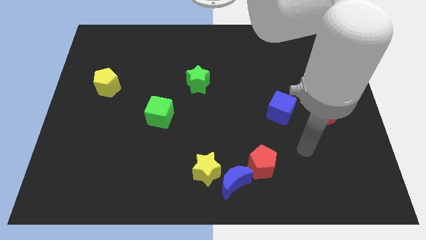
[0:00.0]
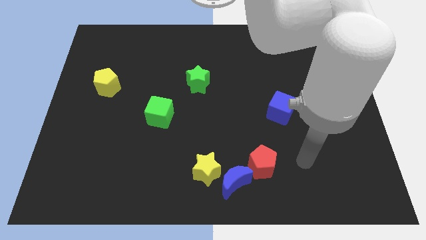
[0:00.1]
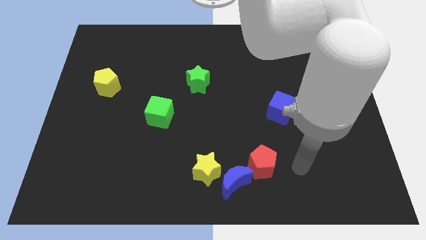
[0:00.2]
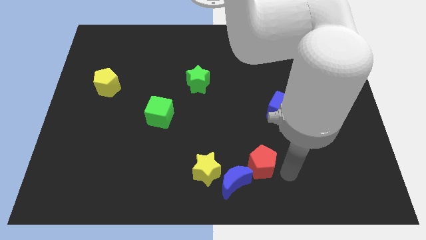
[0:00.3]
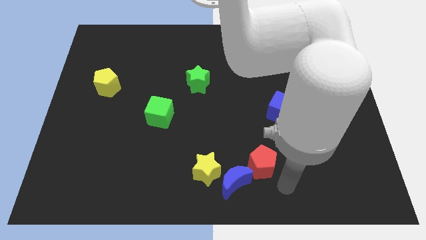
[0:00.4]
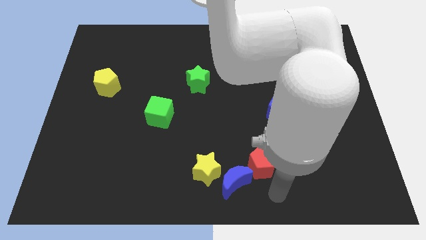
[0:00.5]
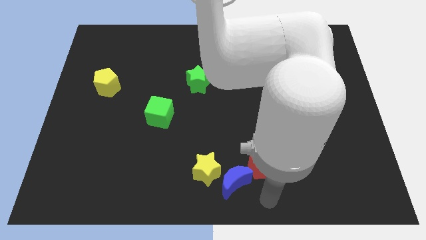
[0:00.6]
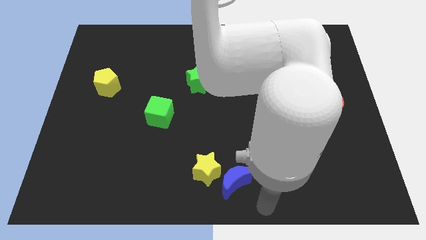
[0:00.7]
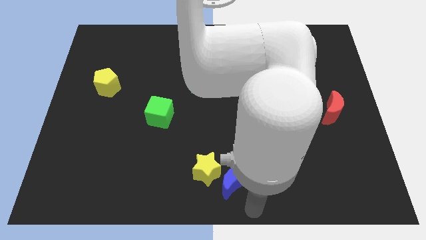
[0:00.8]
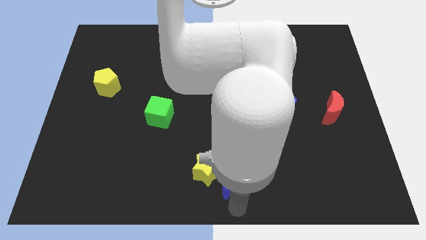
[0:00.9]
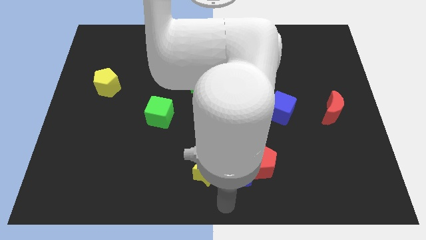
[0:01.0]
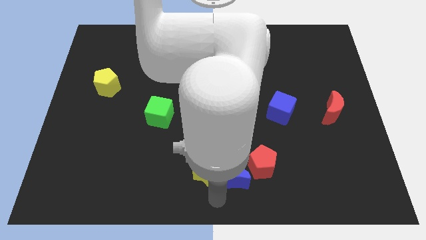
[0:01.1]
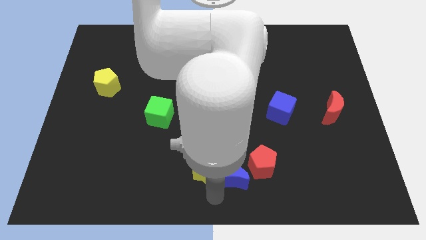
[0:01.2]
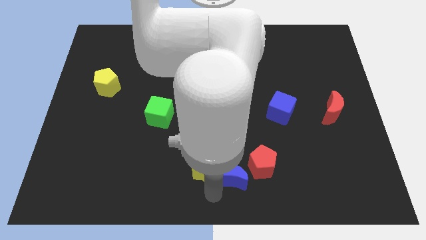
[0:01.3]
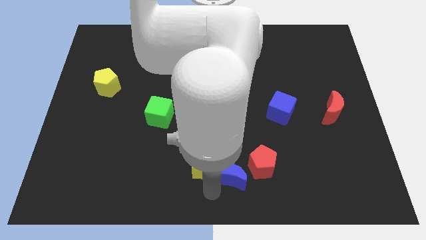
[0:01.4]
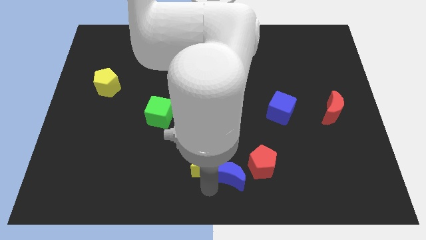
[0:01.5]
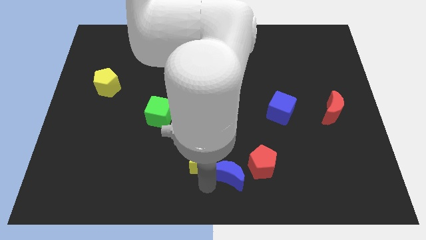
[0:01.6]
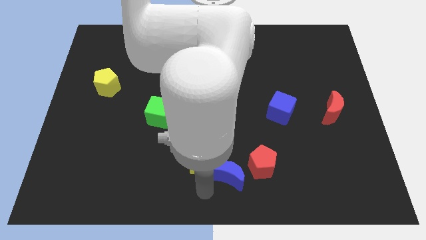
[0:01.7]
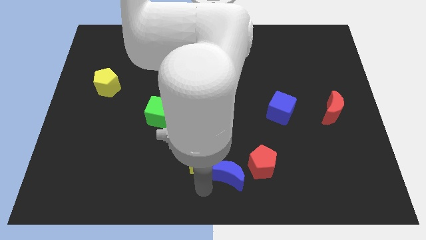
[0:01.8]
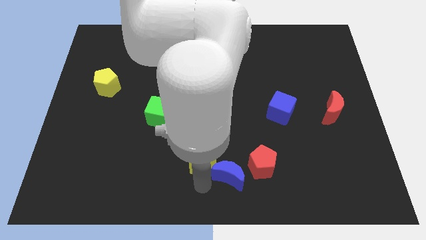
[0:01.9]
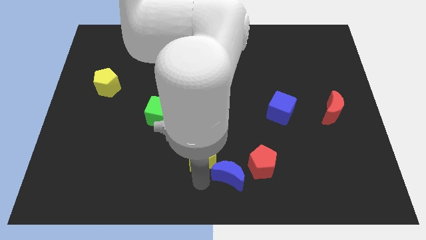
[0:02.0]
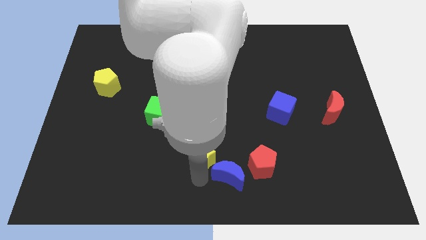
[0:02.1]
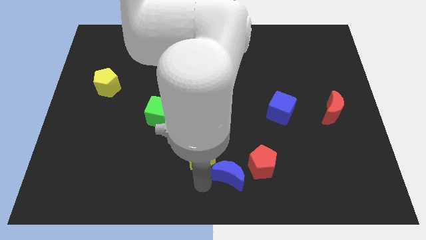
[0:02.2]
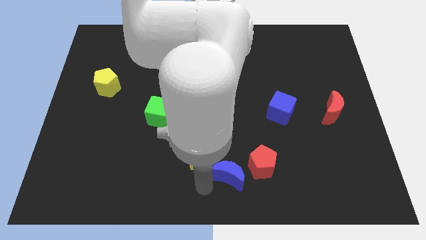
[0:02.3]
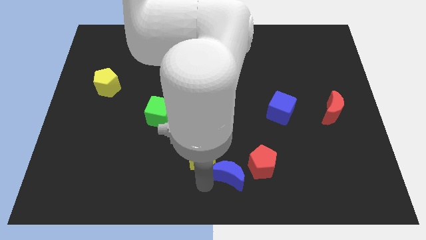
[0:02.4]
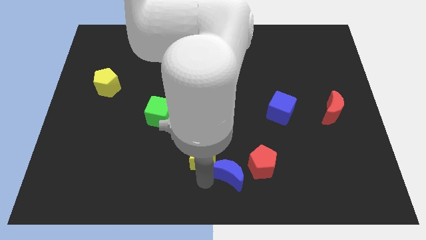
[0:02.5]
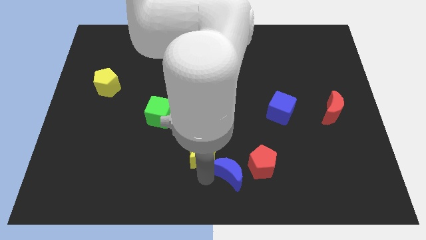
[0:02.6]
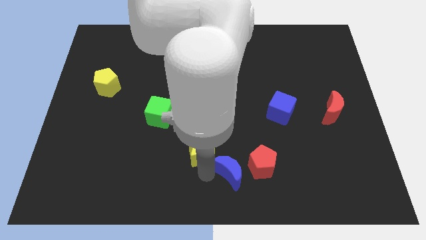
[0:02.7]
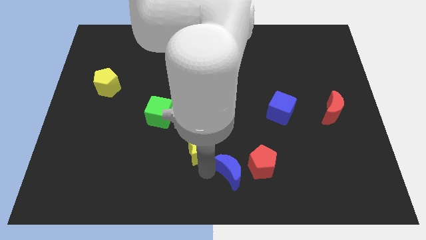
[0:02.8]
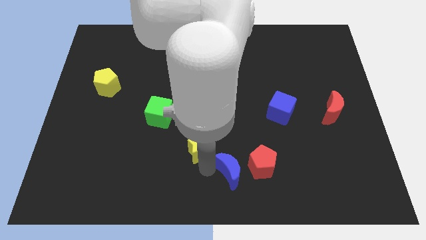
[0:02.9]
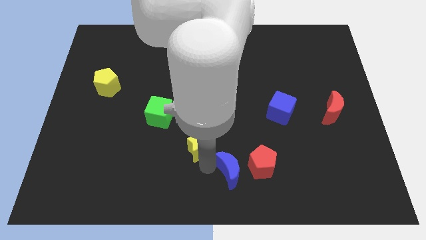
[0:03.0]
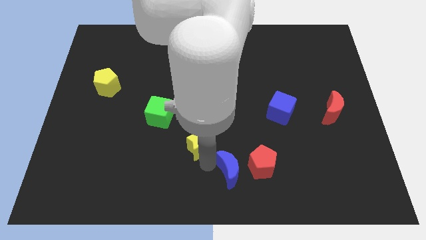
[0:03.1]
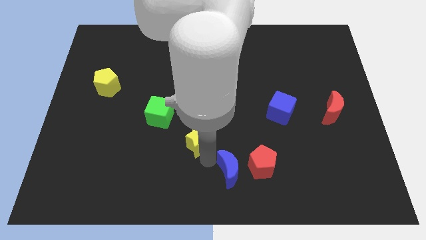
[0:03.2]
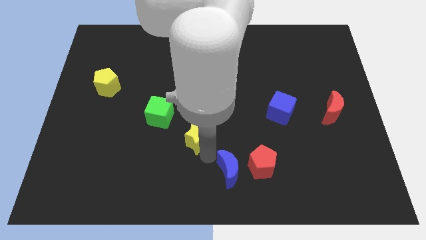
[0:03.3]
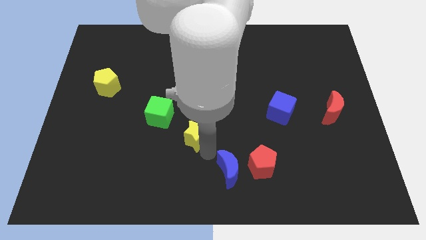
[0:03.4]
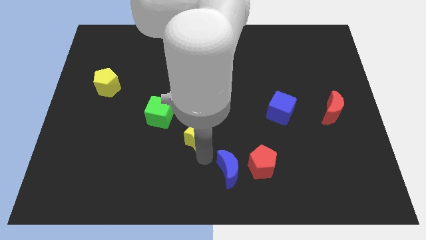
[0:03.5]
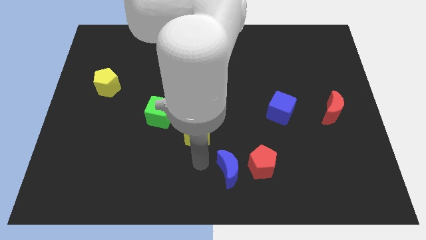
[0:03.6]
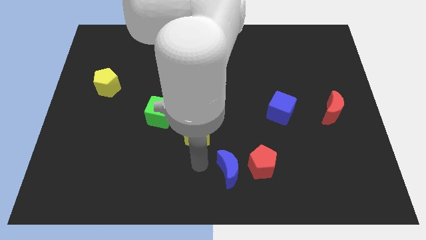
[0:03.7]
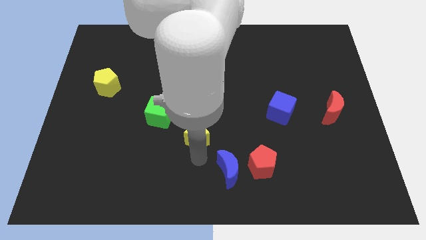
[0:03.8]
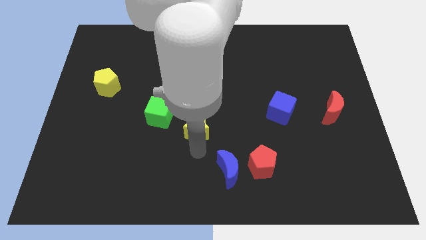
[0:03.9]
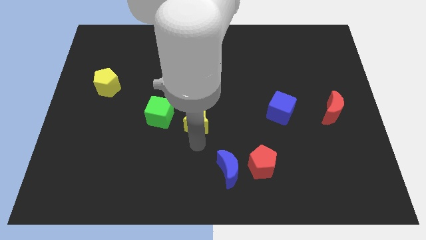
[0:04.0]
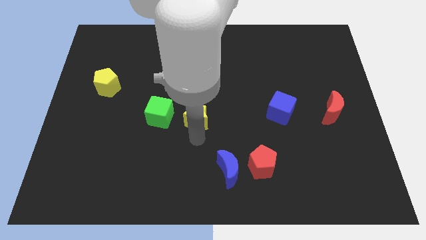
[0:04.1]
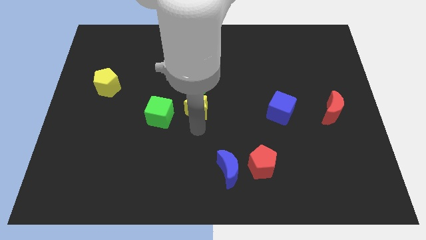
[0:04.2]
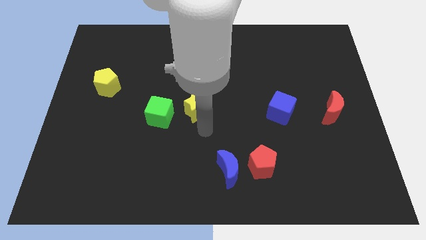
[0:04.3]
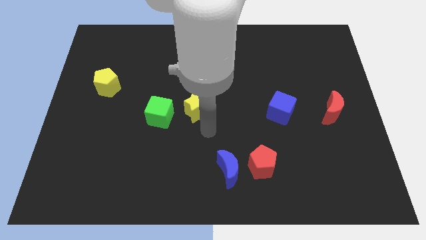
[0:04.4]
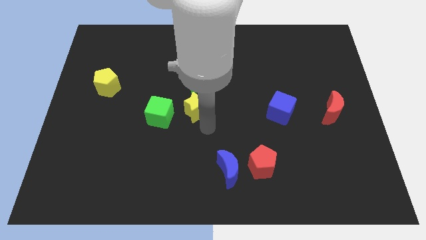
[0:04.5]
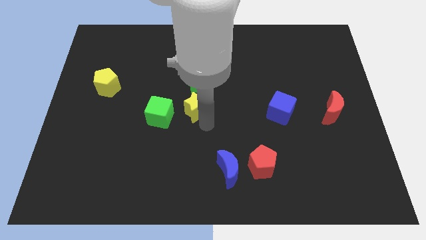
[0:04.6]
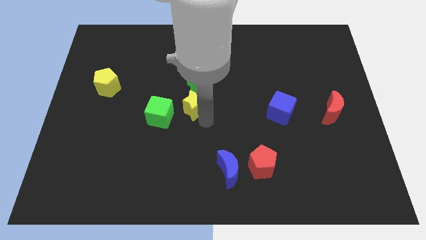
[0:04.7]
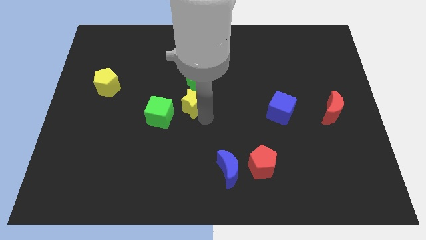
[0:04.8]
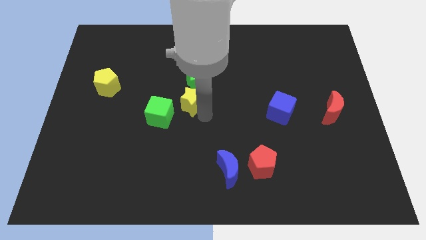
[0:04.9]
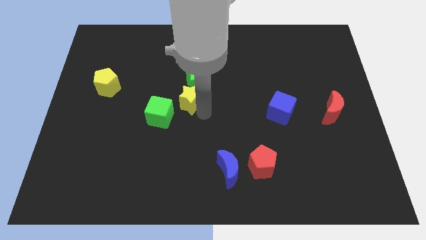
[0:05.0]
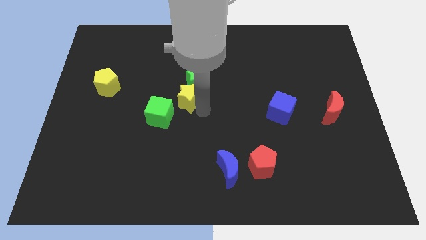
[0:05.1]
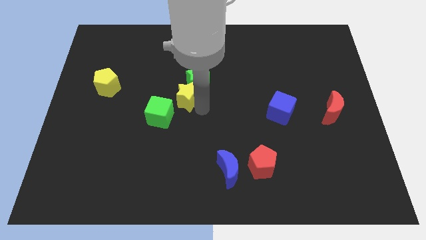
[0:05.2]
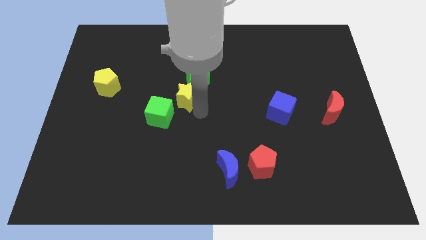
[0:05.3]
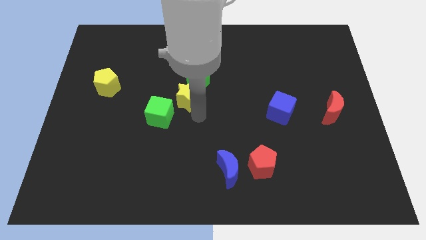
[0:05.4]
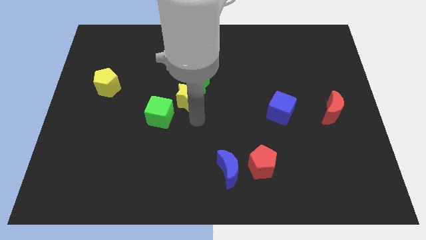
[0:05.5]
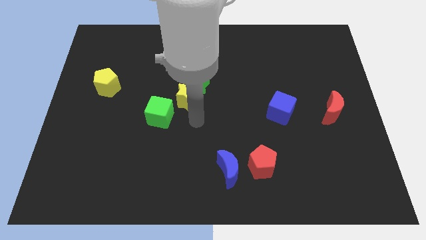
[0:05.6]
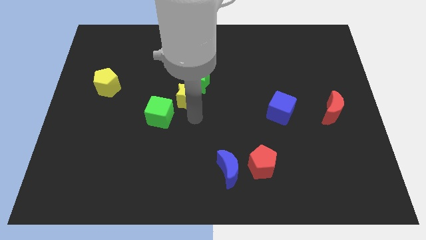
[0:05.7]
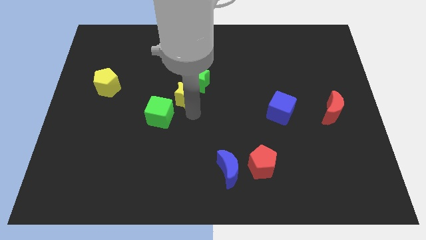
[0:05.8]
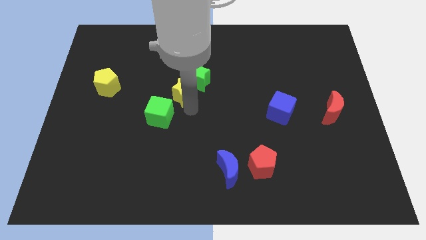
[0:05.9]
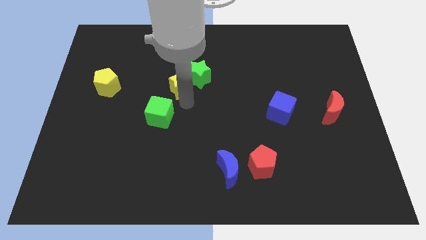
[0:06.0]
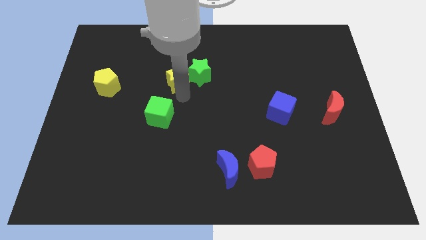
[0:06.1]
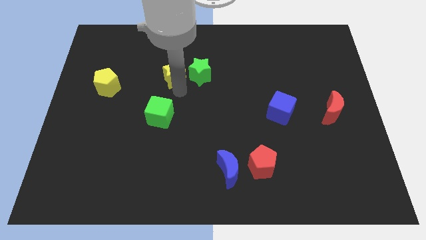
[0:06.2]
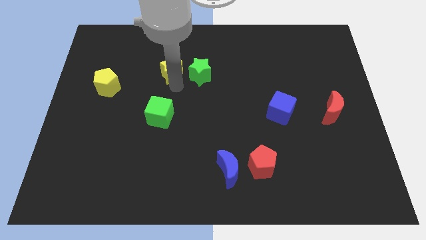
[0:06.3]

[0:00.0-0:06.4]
slide the yellow star diagonally up and to the left of the green star

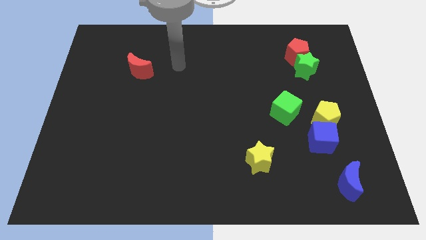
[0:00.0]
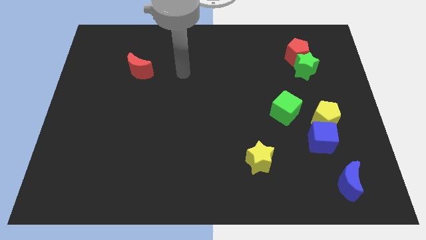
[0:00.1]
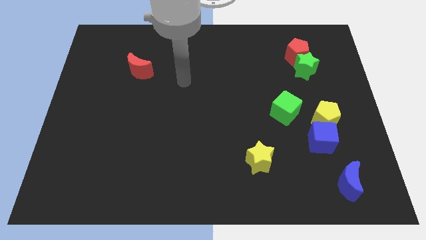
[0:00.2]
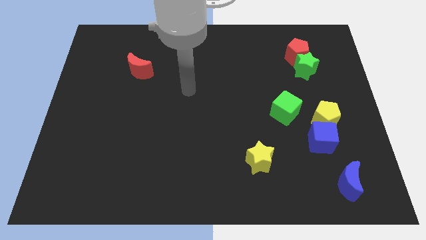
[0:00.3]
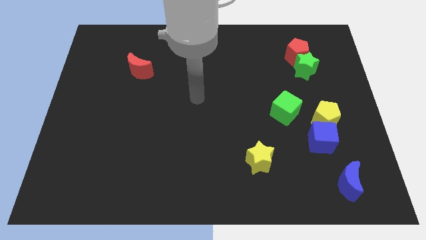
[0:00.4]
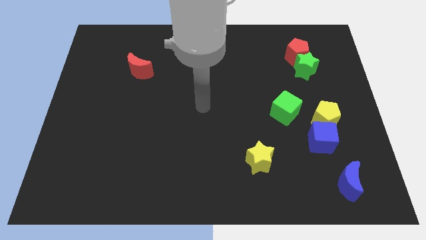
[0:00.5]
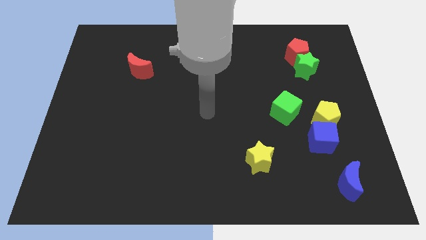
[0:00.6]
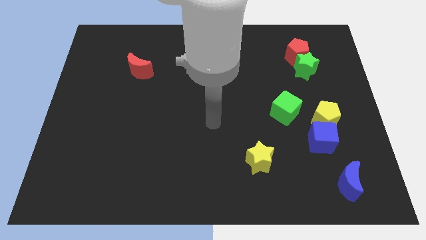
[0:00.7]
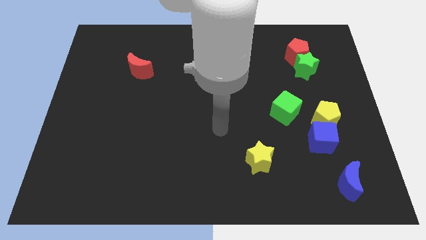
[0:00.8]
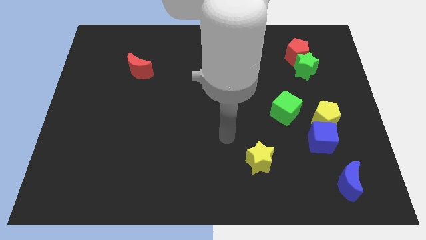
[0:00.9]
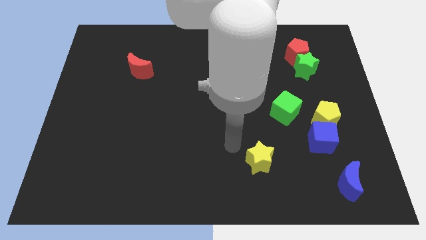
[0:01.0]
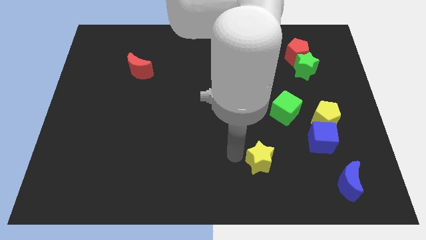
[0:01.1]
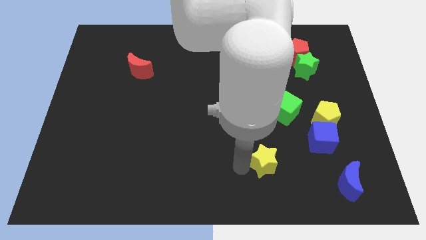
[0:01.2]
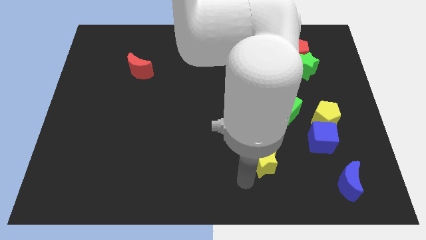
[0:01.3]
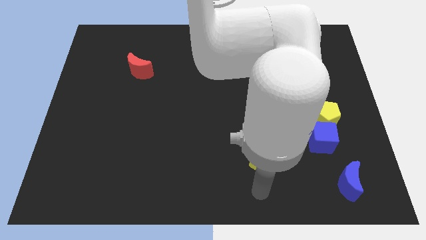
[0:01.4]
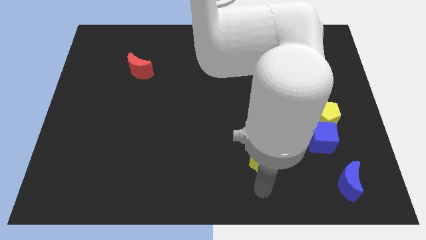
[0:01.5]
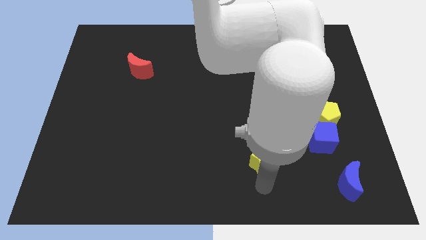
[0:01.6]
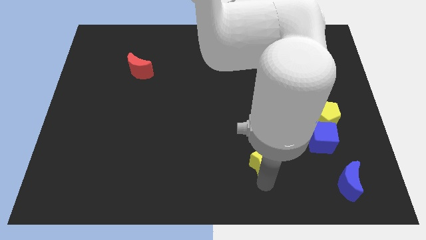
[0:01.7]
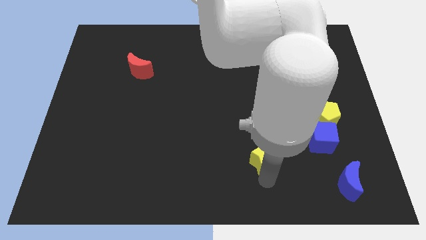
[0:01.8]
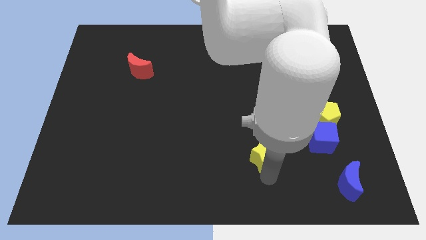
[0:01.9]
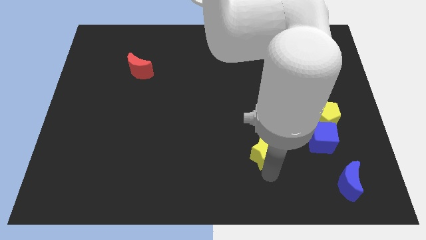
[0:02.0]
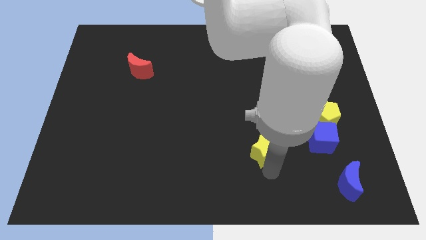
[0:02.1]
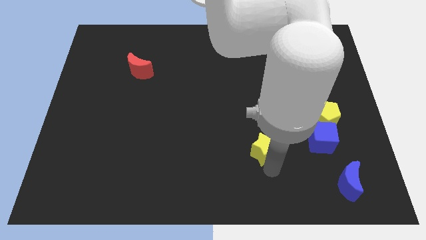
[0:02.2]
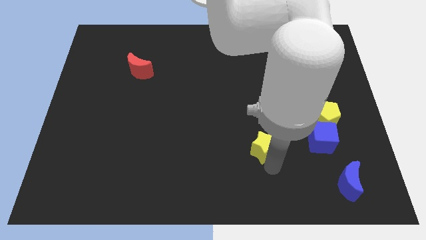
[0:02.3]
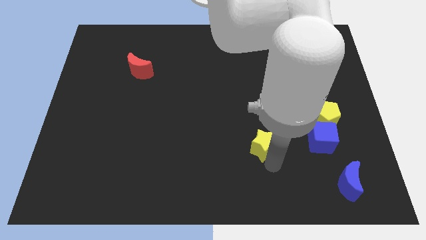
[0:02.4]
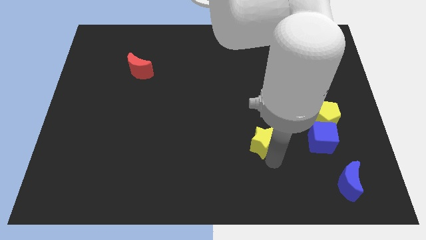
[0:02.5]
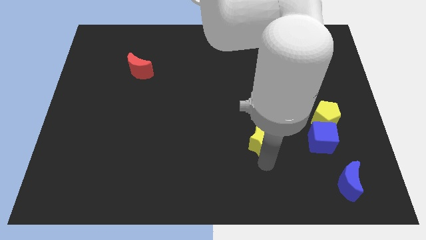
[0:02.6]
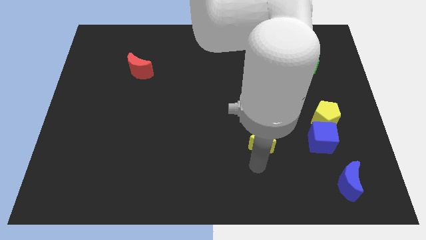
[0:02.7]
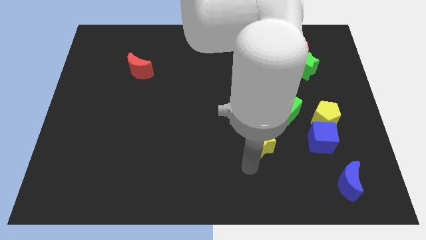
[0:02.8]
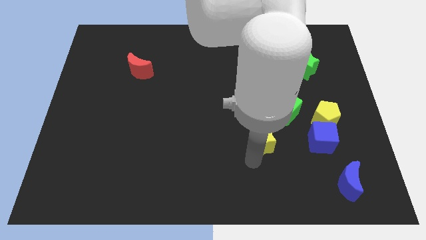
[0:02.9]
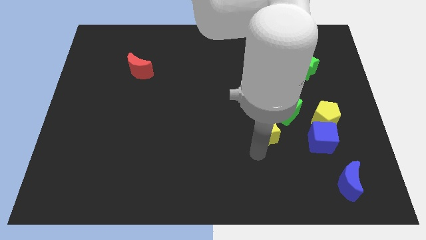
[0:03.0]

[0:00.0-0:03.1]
slide the yellow star to the left side of the yellow pentagon
